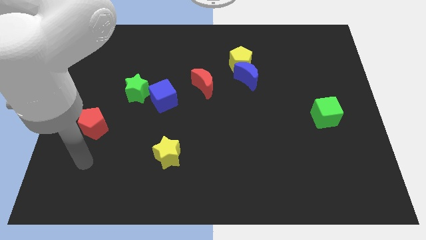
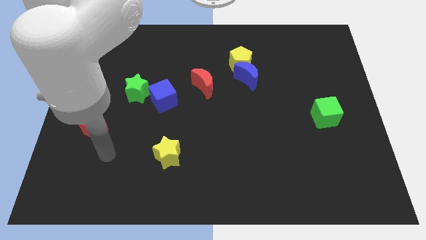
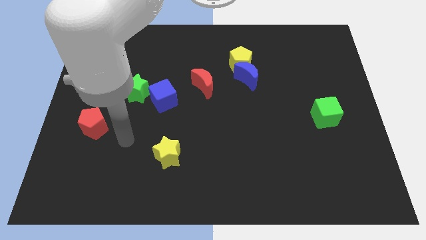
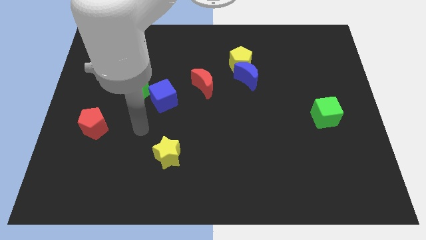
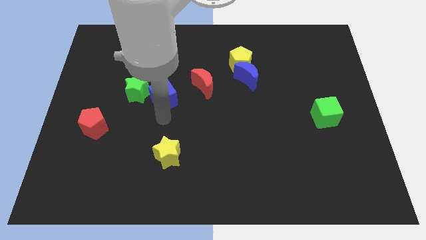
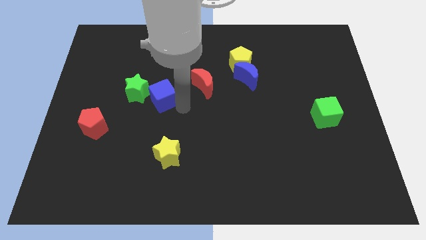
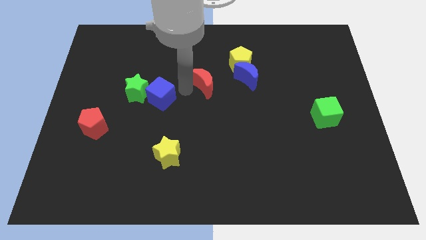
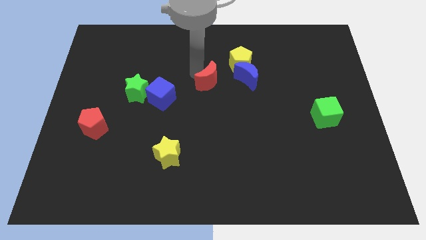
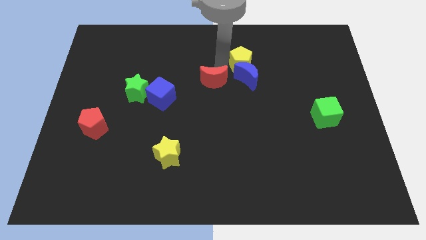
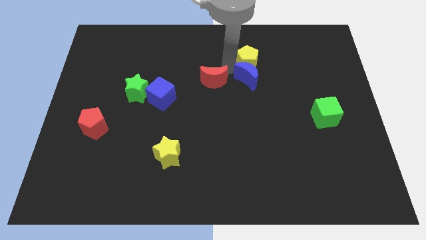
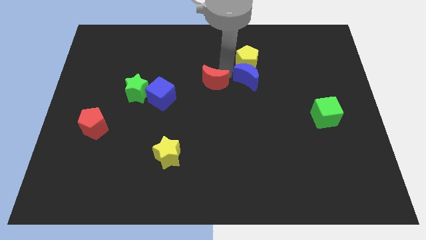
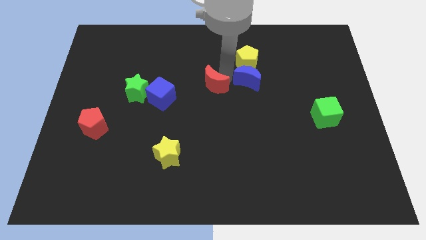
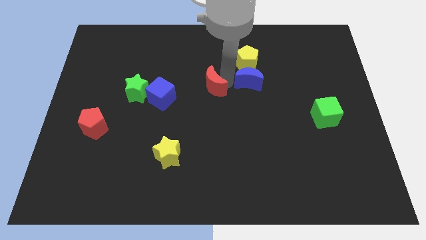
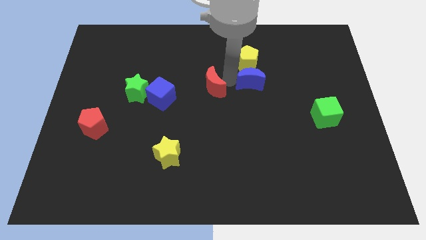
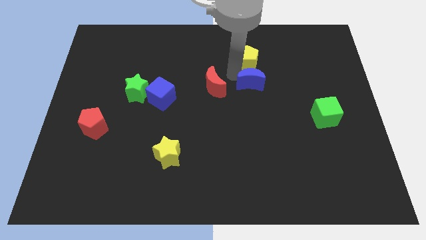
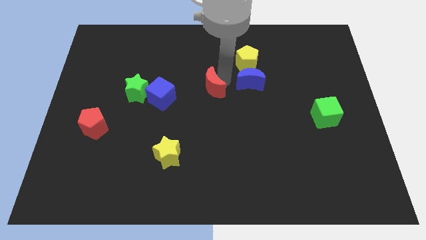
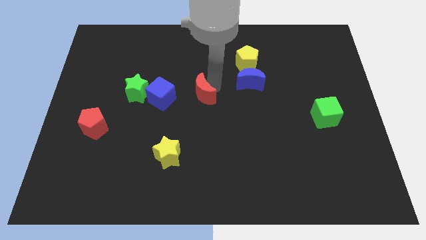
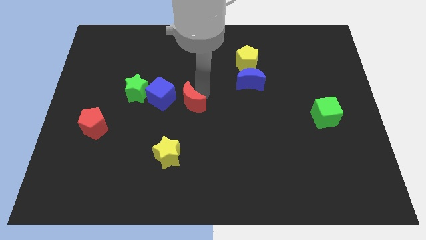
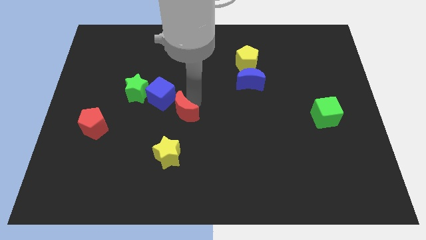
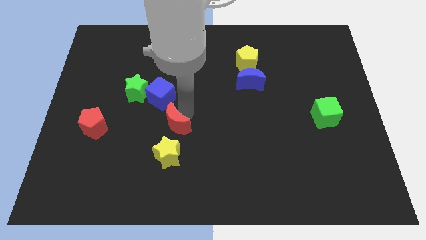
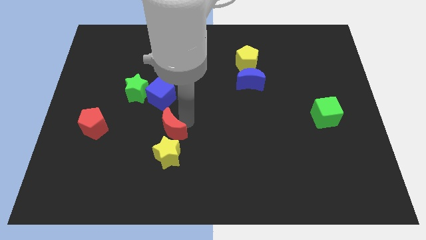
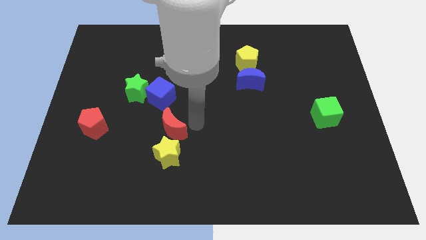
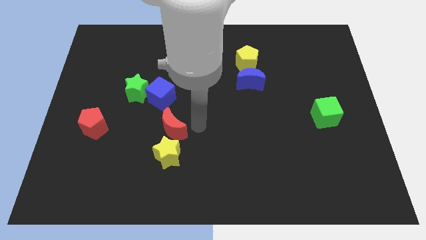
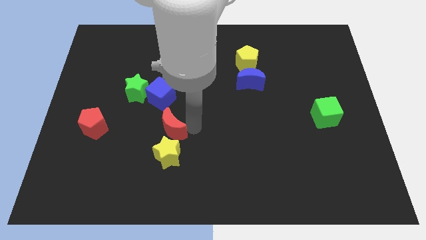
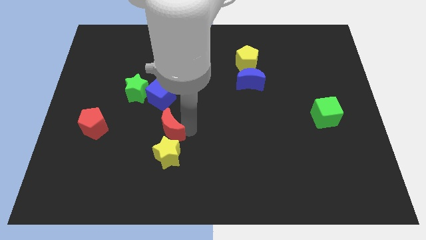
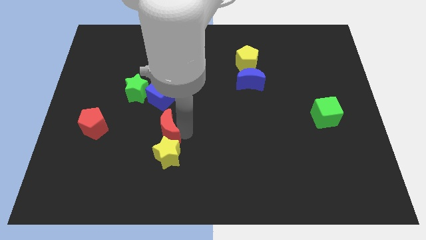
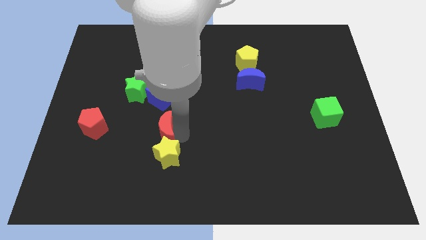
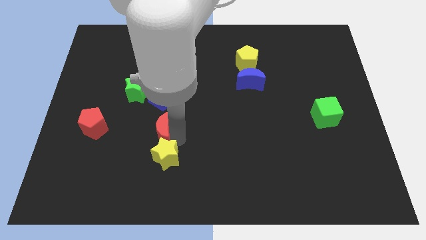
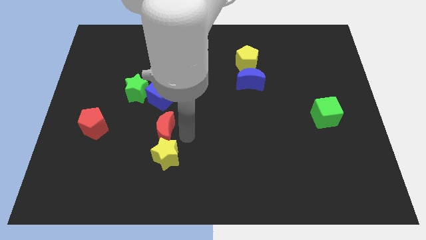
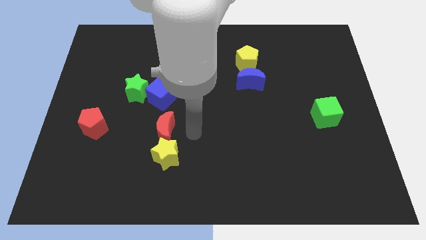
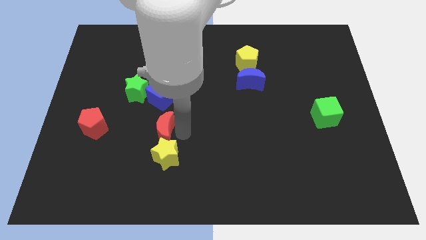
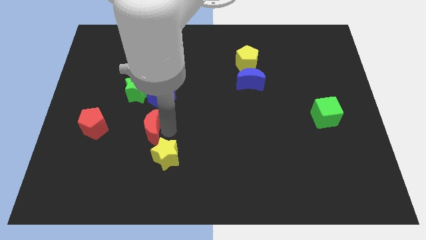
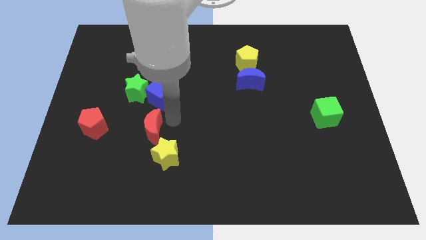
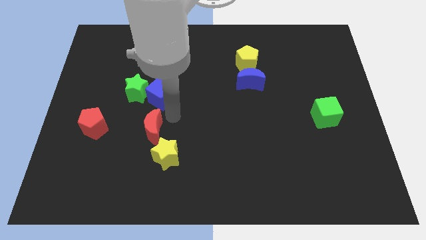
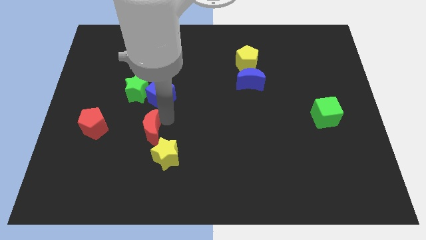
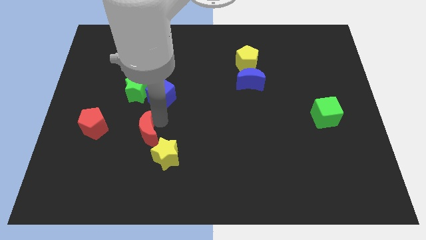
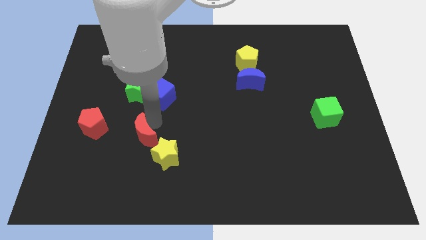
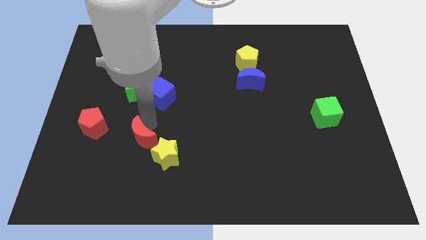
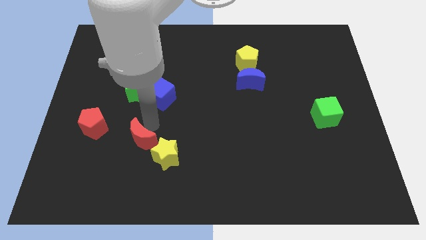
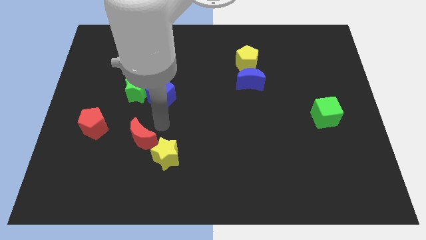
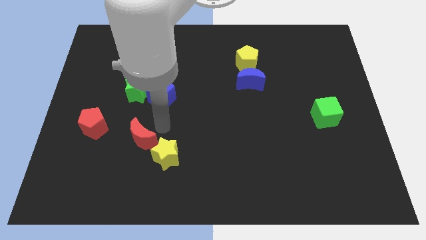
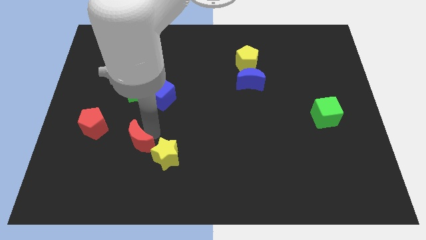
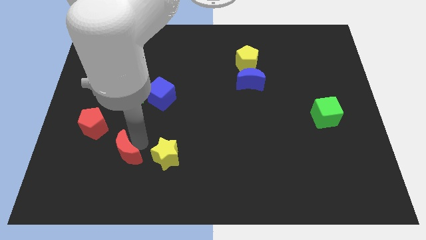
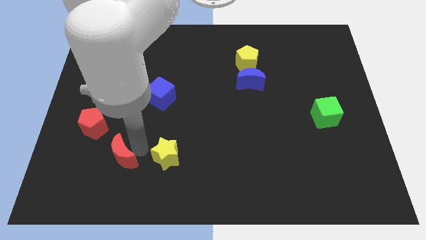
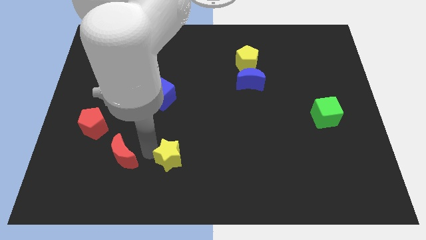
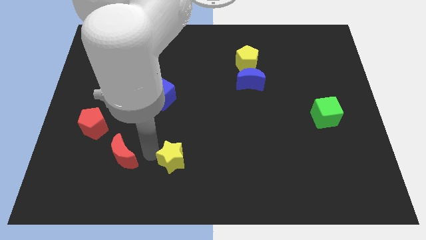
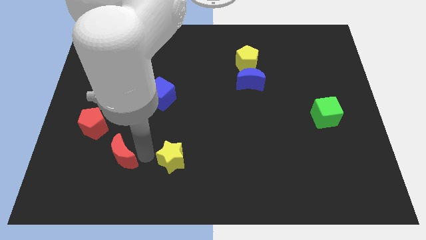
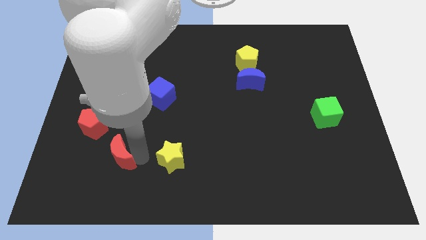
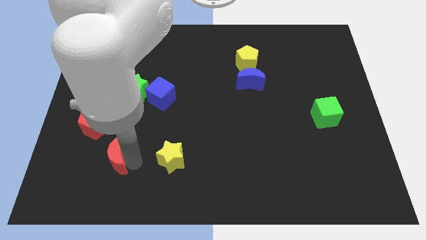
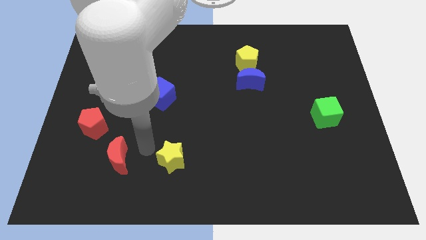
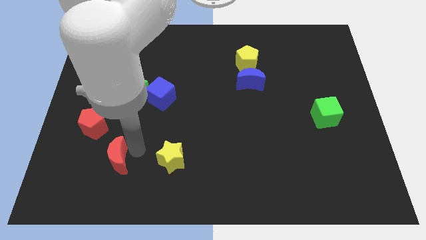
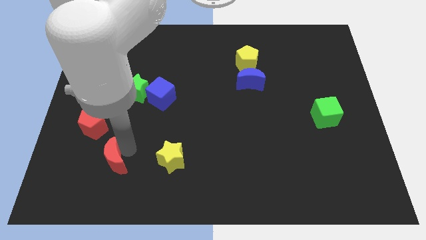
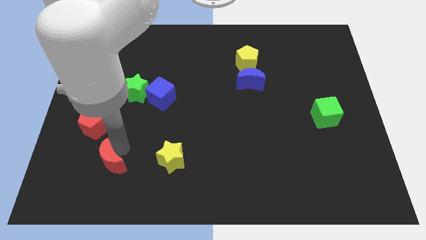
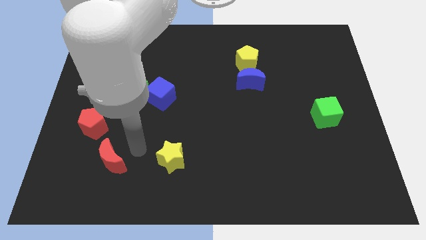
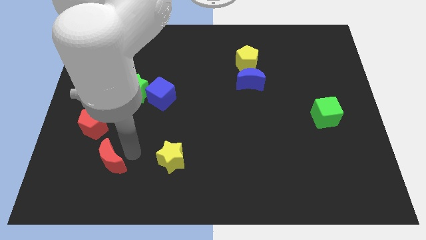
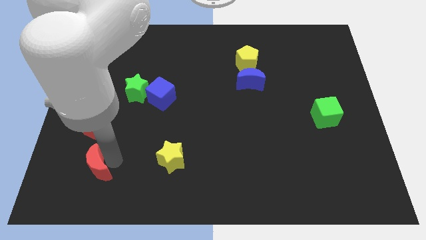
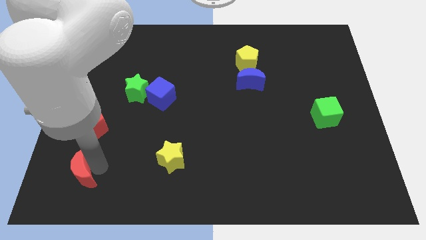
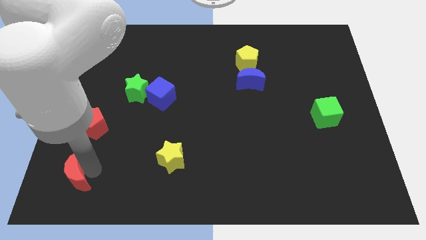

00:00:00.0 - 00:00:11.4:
move the red moon to the lower left corner

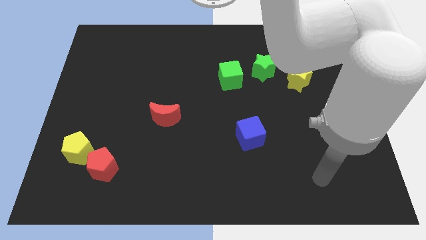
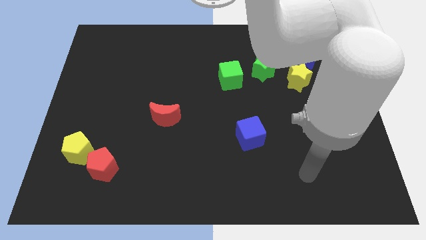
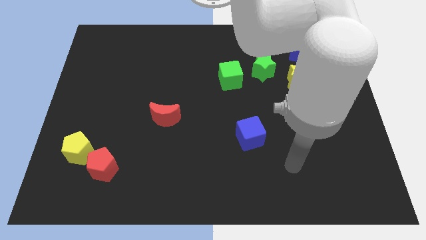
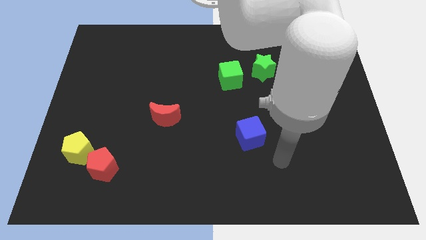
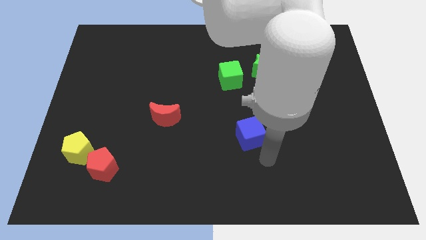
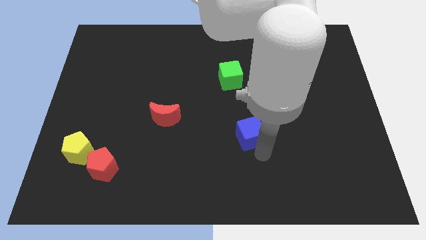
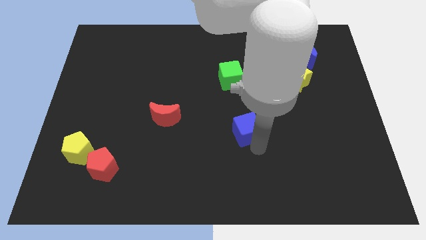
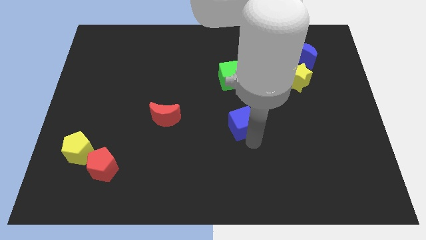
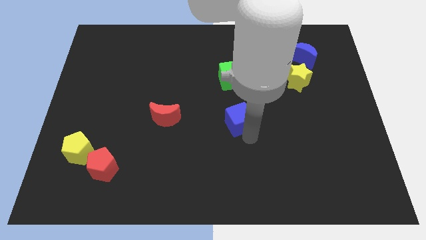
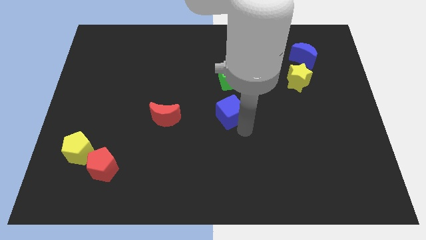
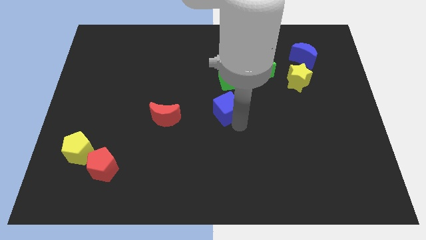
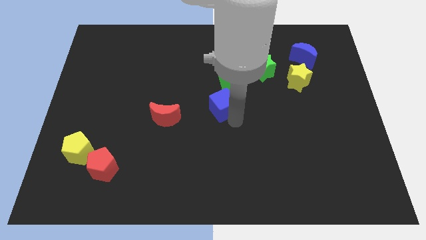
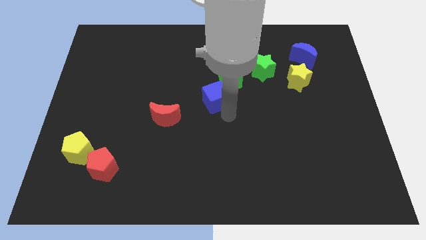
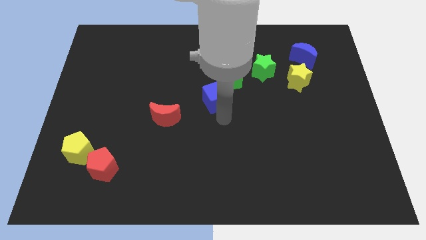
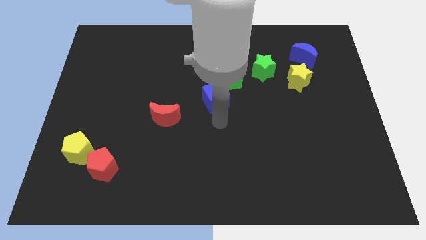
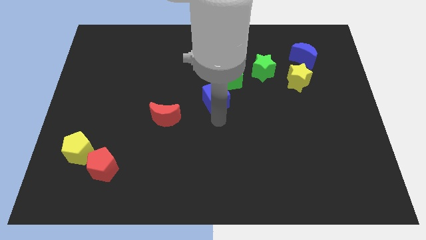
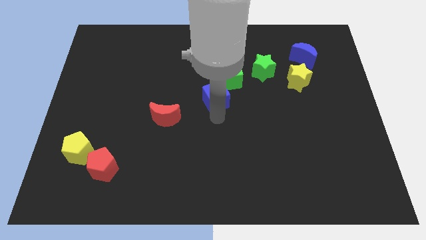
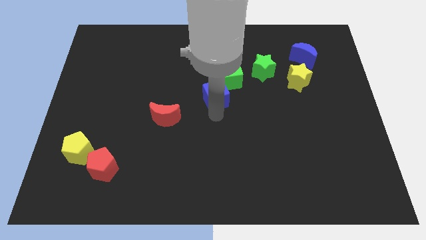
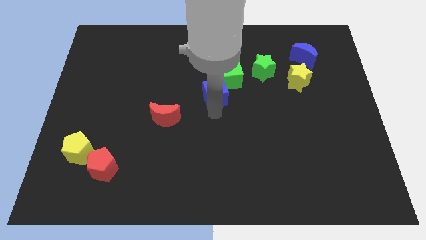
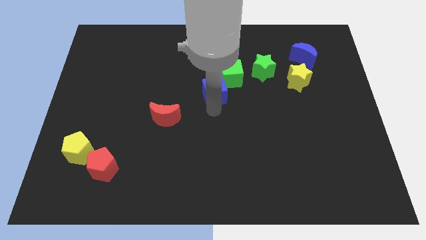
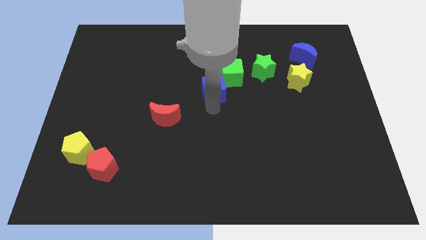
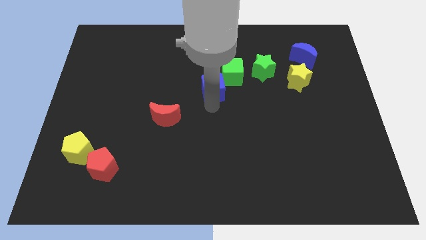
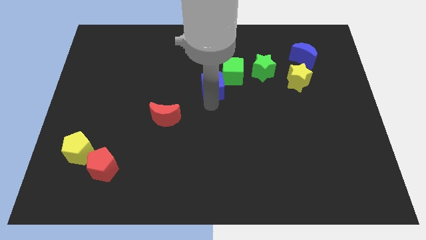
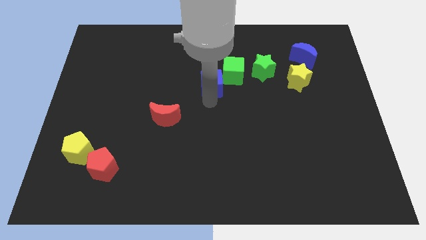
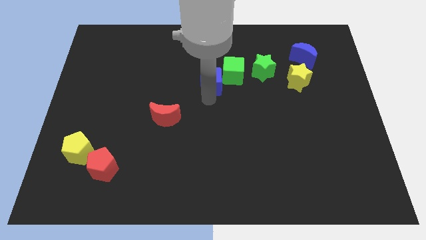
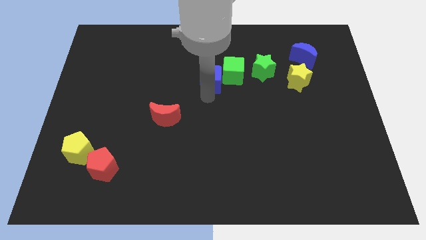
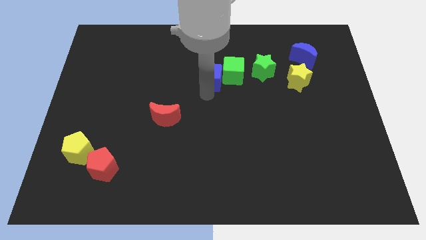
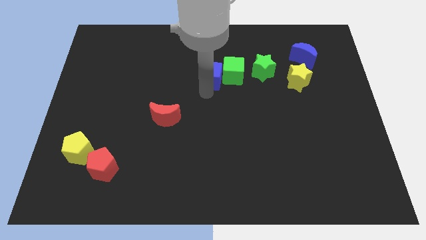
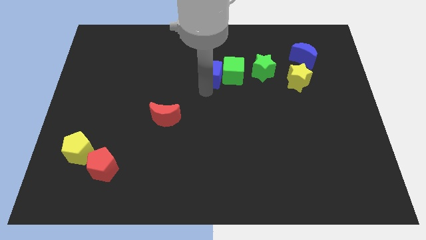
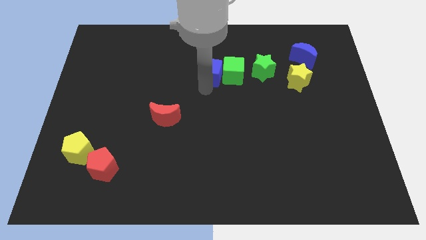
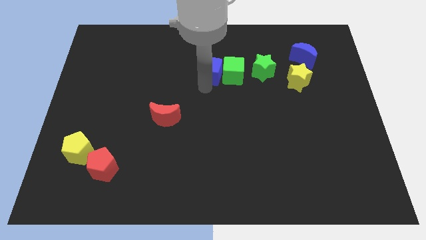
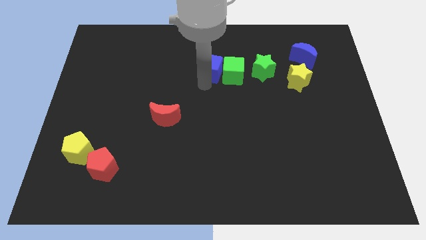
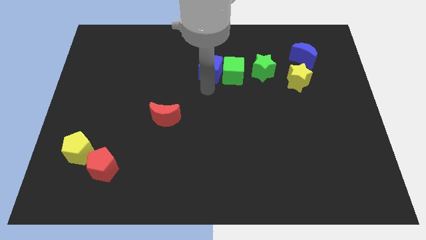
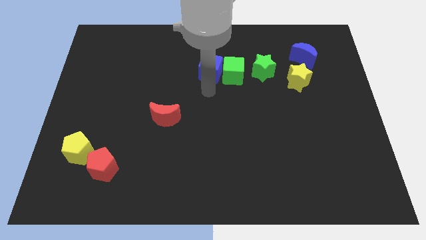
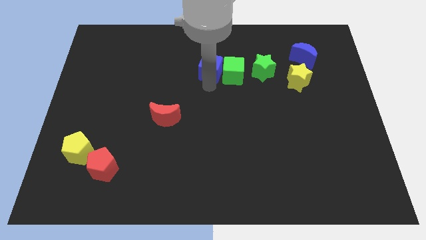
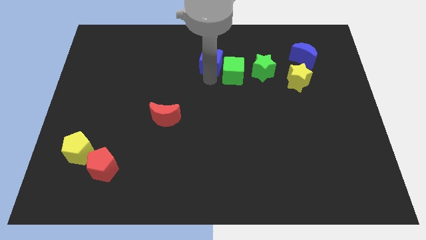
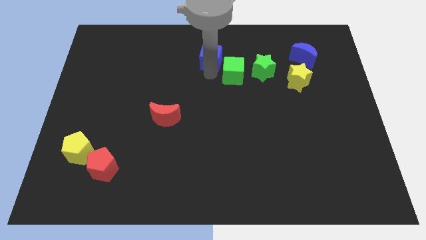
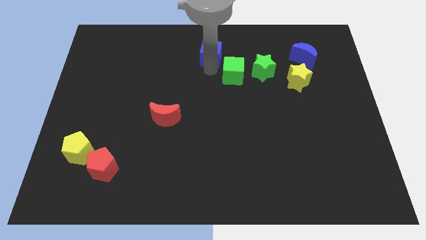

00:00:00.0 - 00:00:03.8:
slide the blue cube to the top
